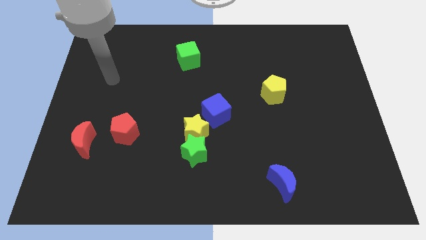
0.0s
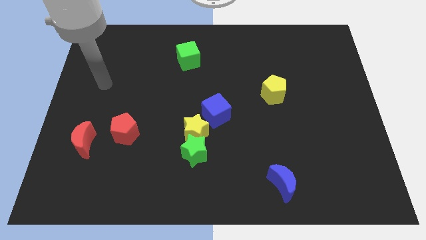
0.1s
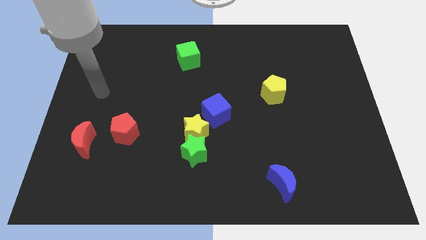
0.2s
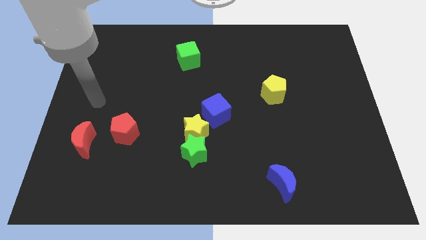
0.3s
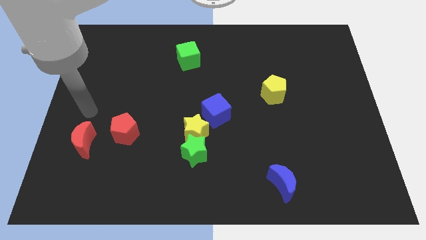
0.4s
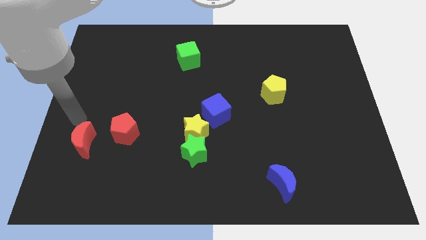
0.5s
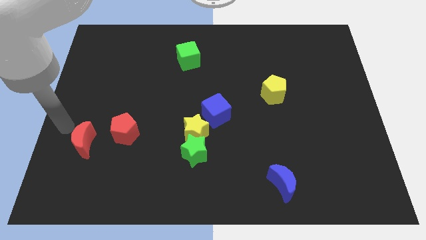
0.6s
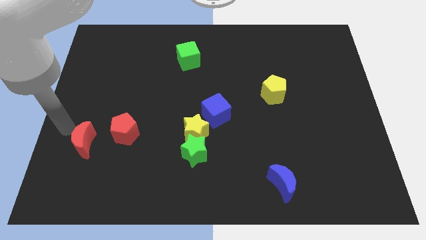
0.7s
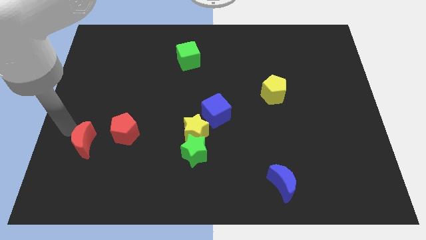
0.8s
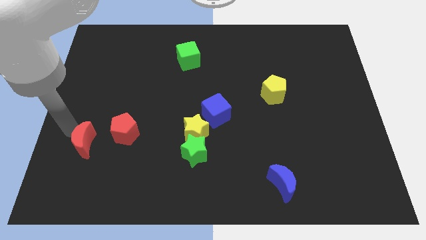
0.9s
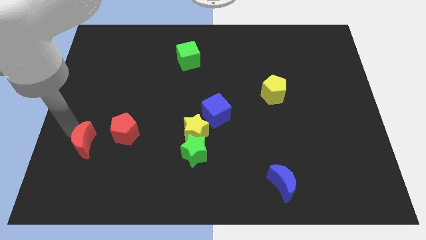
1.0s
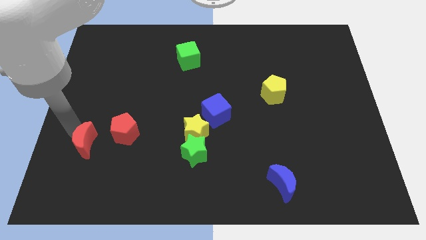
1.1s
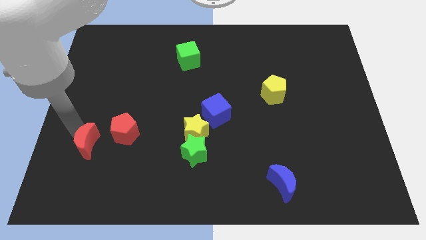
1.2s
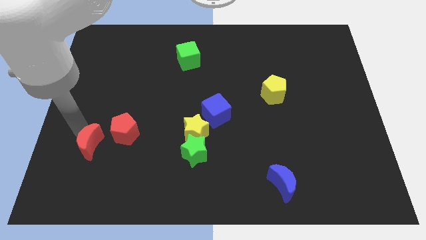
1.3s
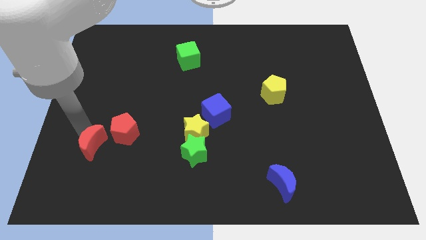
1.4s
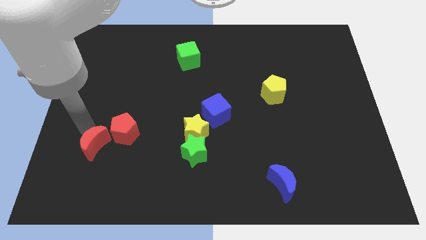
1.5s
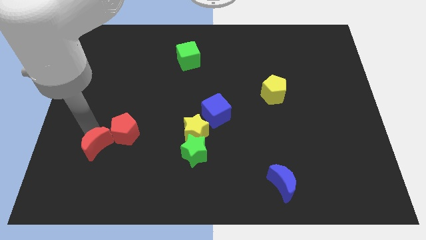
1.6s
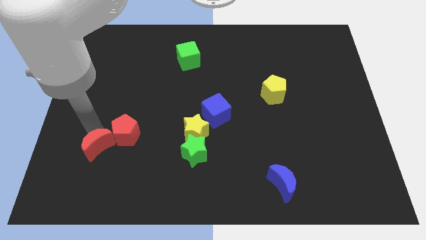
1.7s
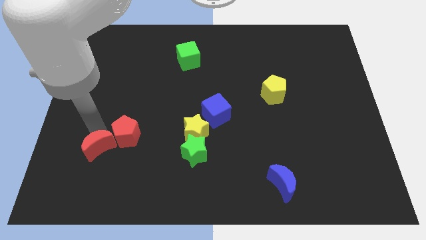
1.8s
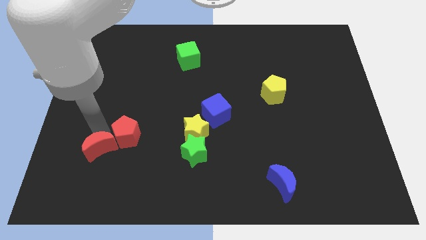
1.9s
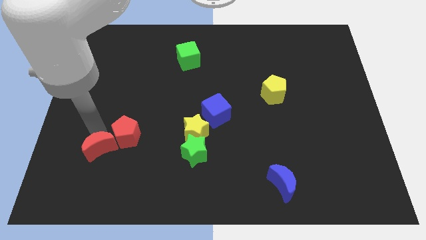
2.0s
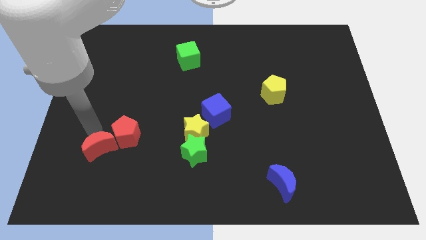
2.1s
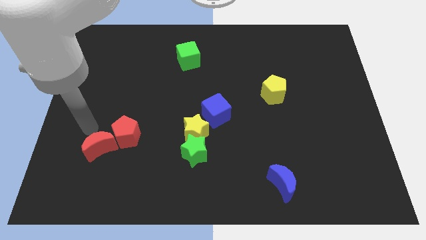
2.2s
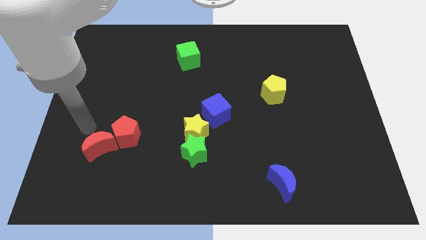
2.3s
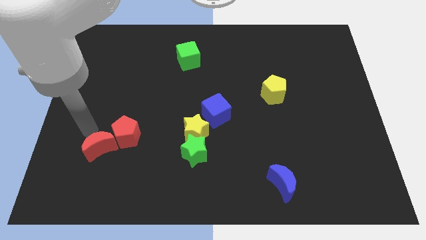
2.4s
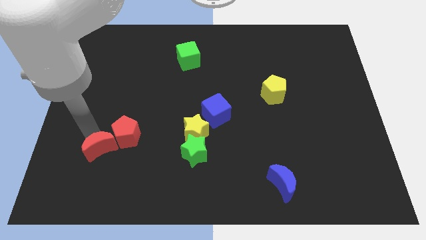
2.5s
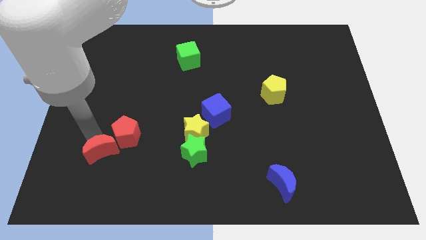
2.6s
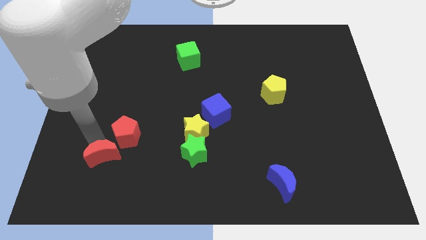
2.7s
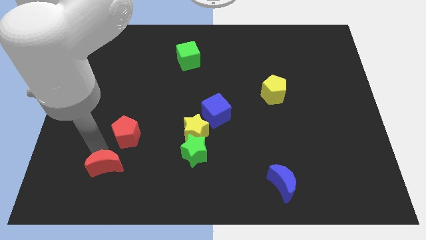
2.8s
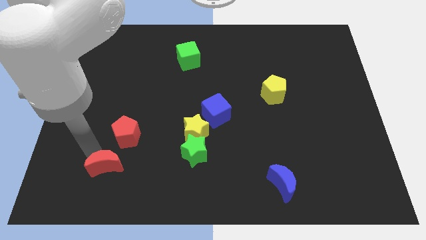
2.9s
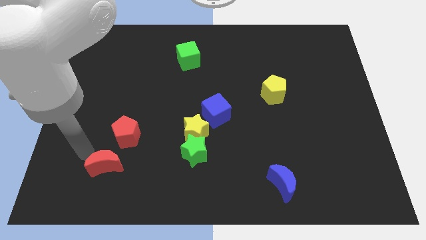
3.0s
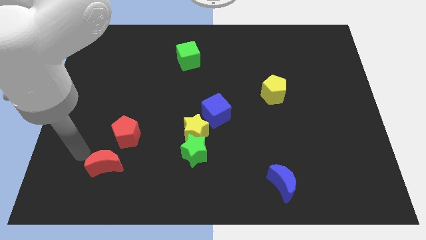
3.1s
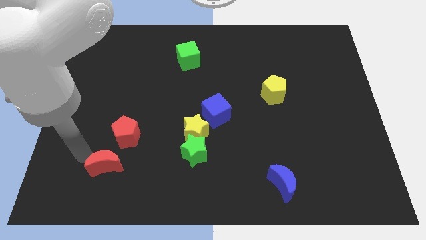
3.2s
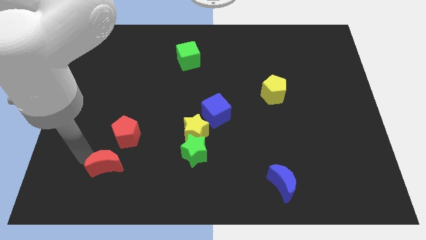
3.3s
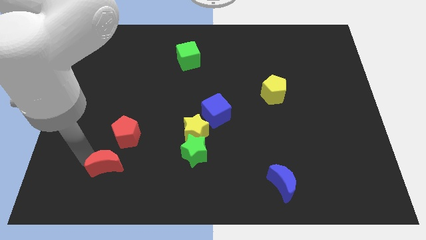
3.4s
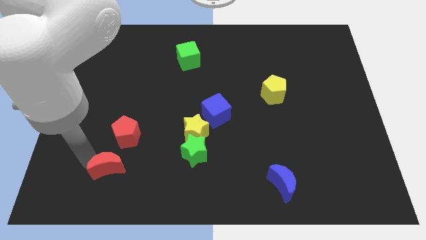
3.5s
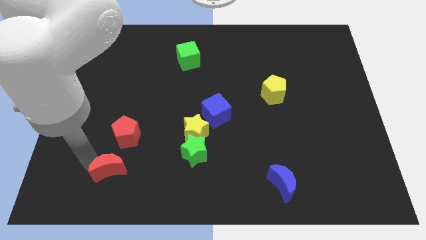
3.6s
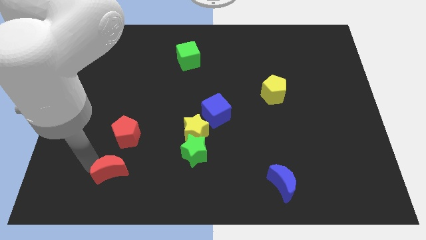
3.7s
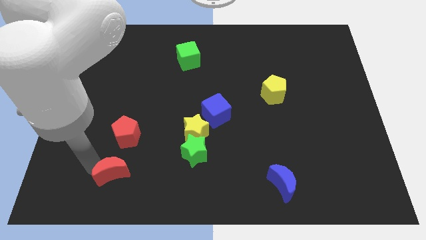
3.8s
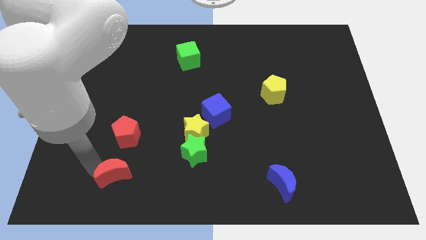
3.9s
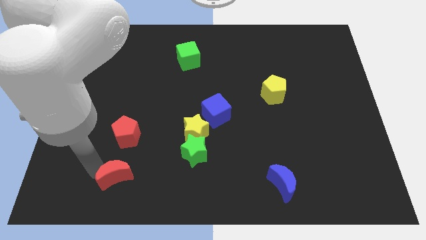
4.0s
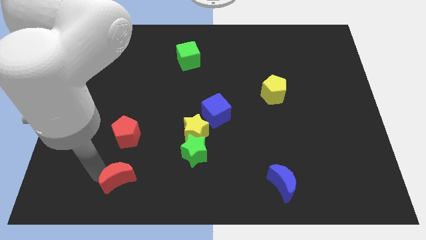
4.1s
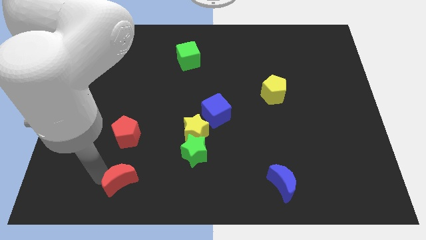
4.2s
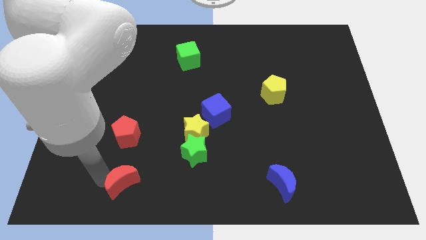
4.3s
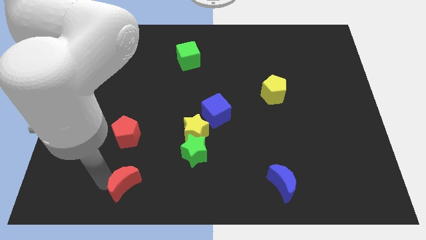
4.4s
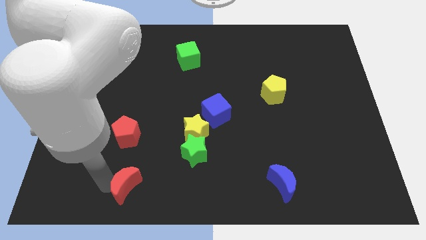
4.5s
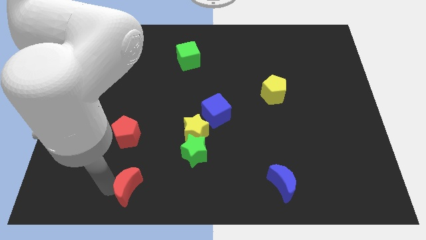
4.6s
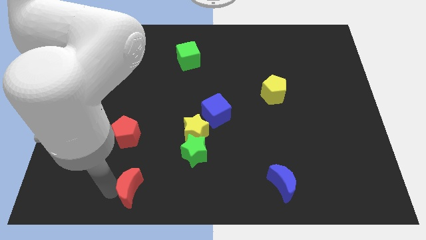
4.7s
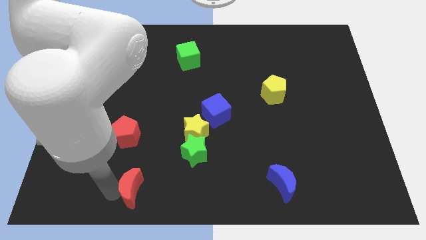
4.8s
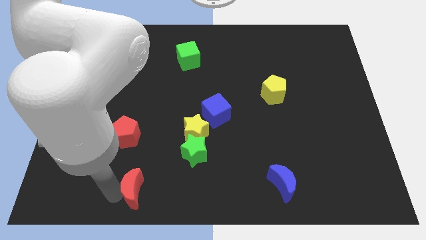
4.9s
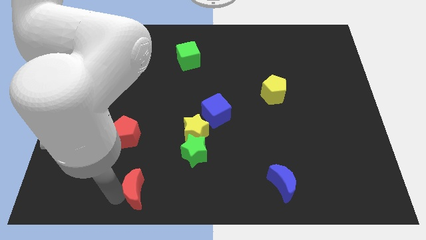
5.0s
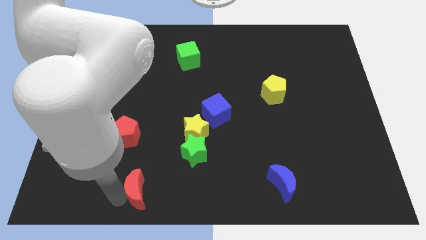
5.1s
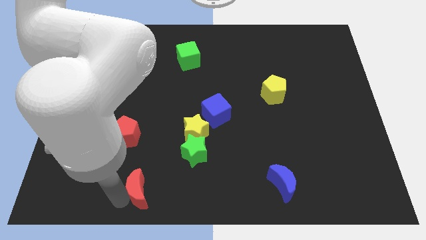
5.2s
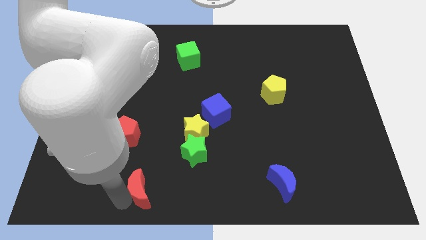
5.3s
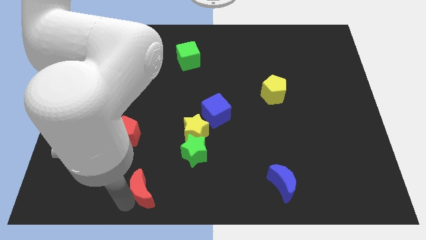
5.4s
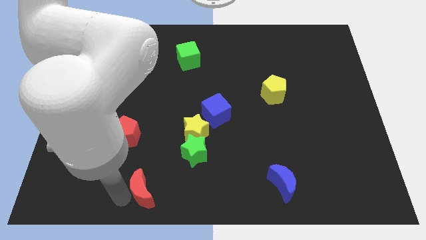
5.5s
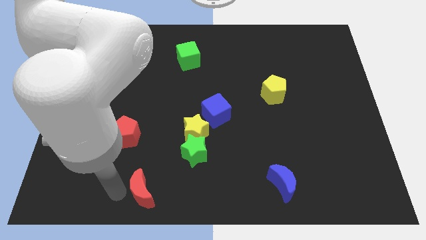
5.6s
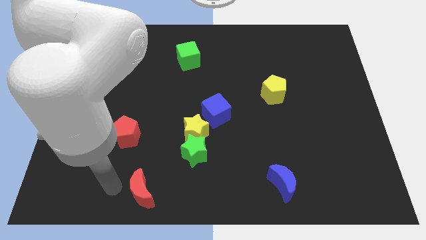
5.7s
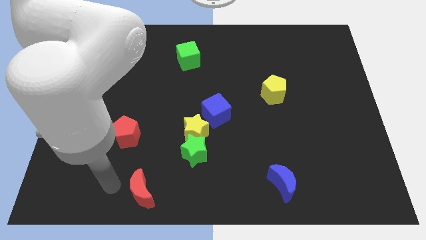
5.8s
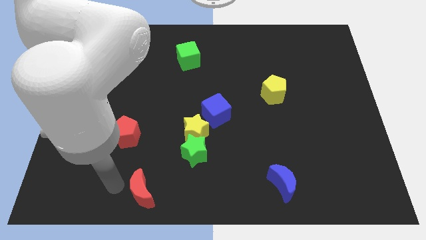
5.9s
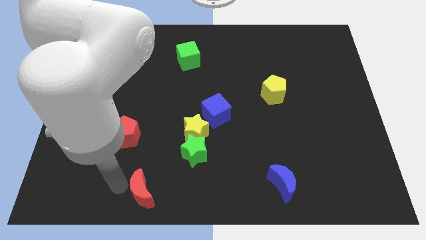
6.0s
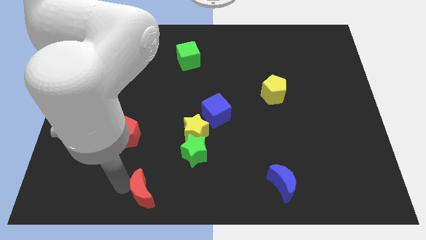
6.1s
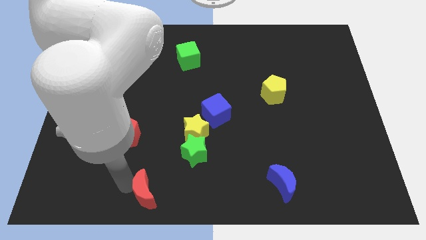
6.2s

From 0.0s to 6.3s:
slide the red moon to the bottom side
